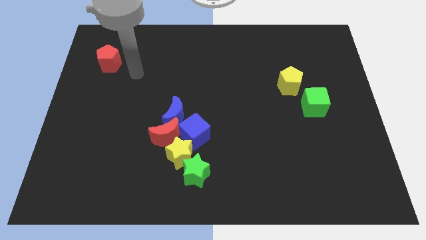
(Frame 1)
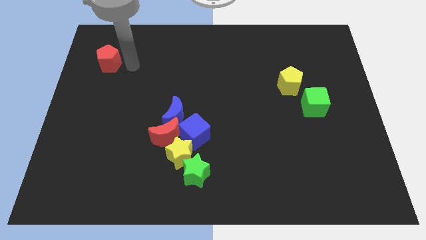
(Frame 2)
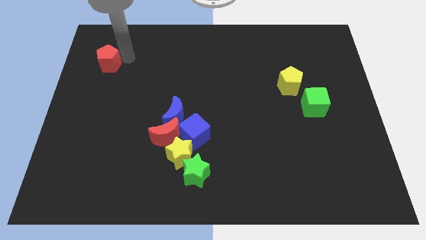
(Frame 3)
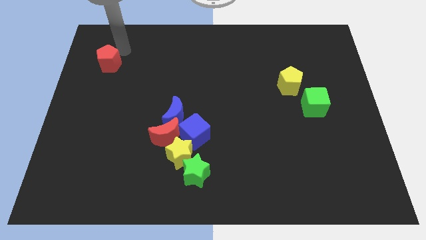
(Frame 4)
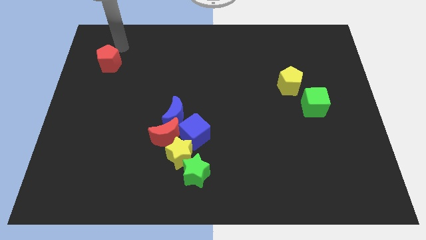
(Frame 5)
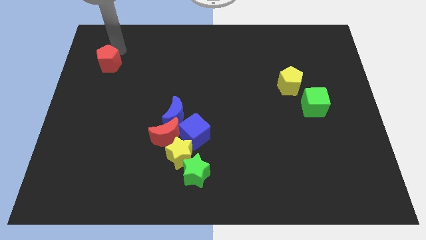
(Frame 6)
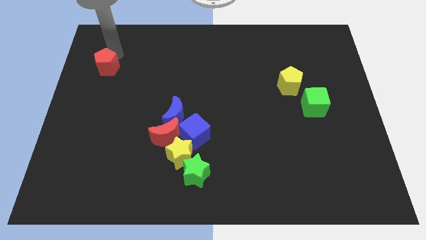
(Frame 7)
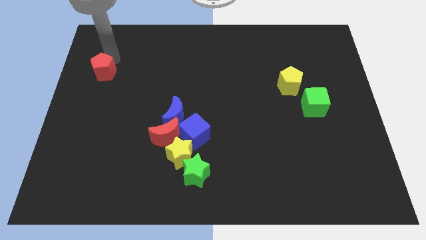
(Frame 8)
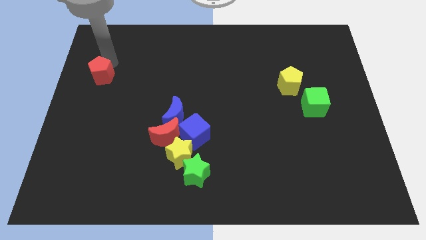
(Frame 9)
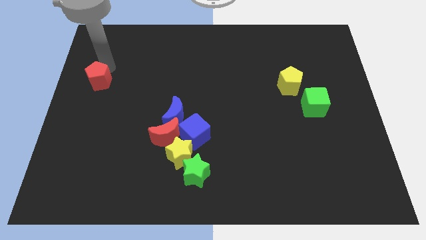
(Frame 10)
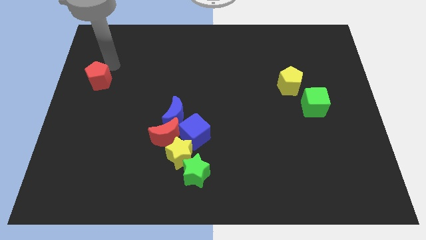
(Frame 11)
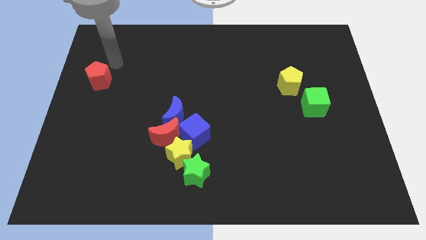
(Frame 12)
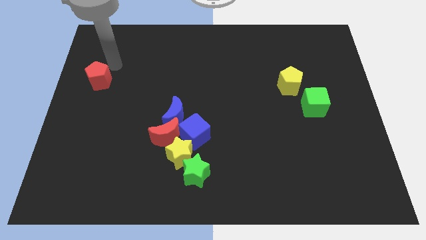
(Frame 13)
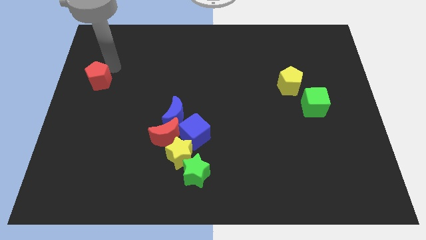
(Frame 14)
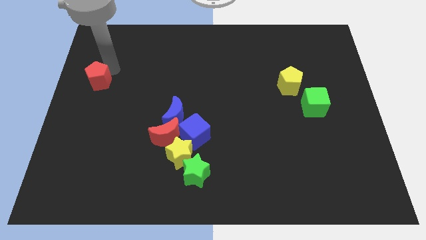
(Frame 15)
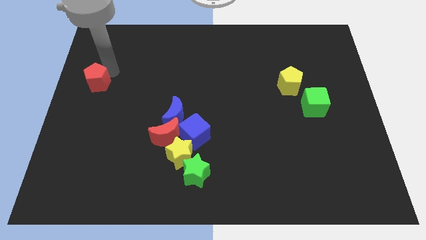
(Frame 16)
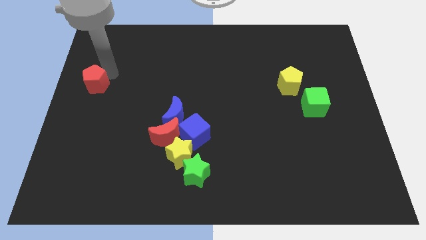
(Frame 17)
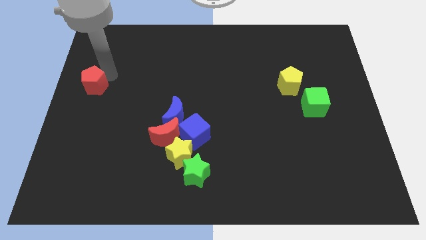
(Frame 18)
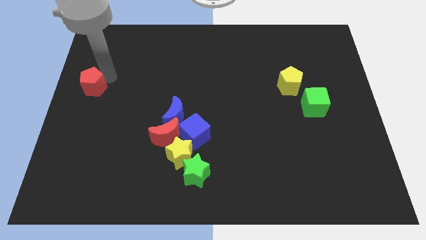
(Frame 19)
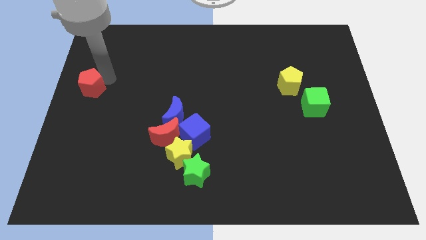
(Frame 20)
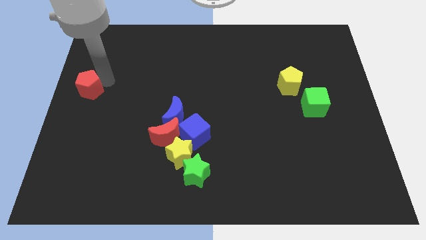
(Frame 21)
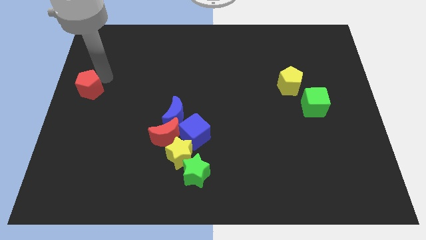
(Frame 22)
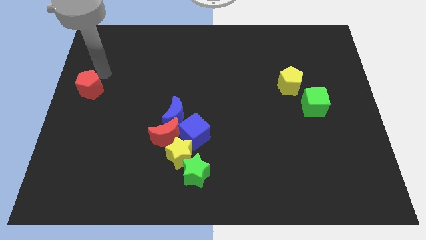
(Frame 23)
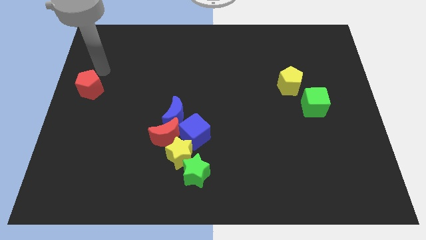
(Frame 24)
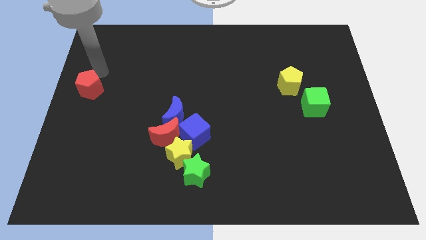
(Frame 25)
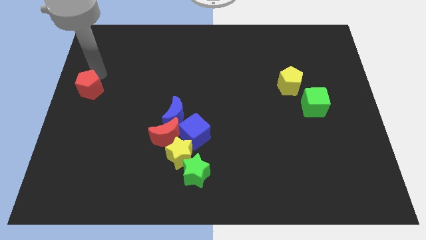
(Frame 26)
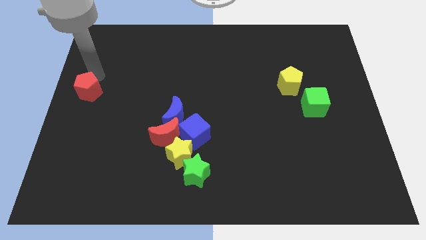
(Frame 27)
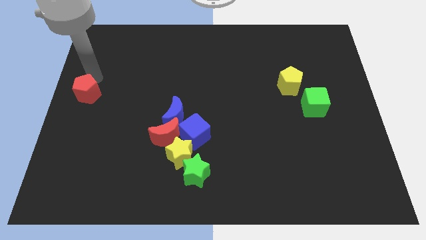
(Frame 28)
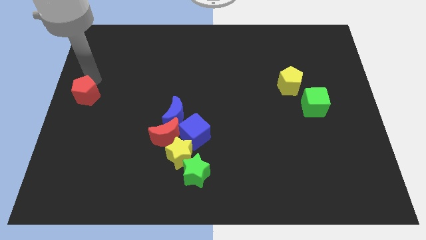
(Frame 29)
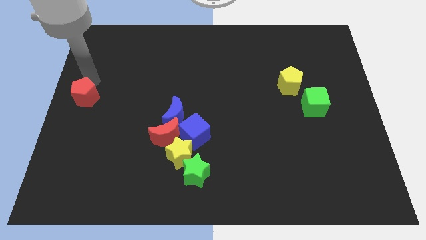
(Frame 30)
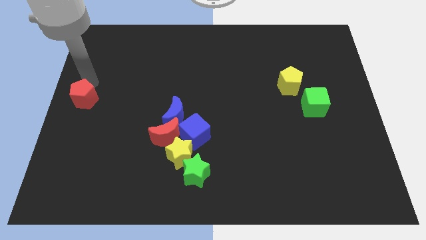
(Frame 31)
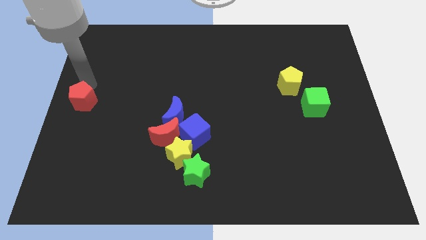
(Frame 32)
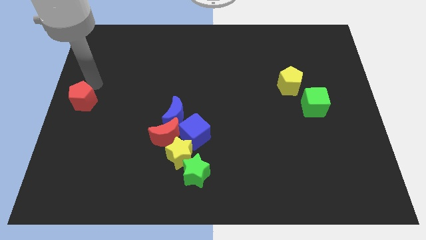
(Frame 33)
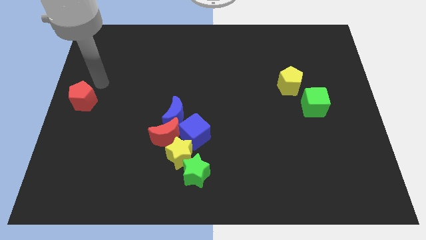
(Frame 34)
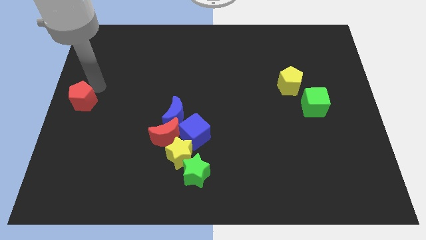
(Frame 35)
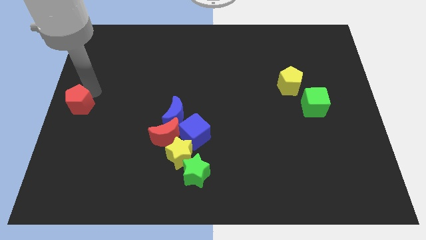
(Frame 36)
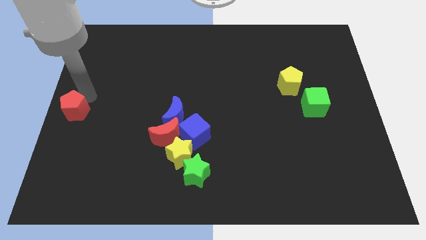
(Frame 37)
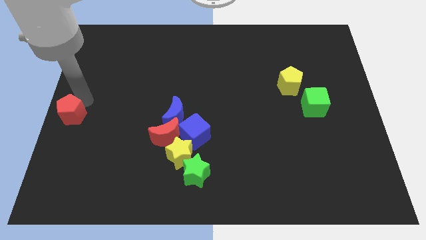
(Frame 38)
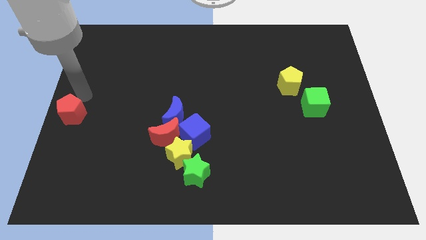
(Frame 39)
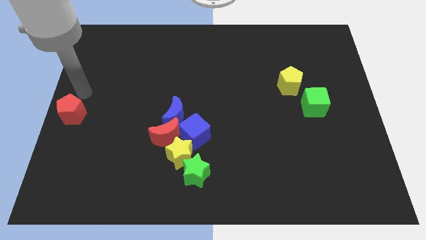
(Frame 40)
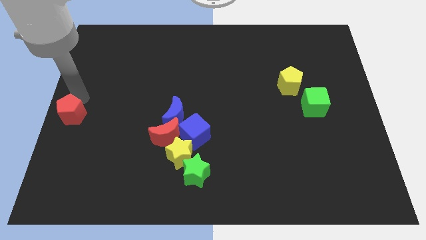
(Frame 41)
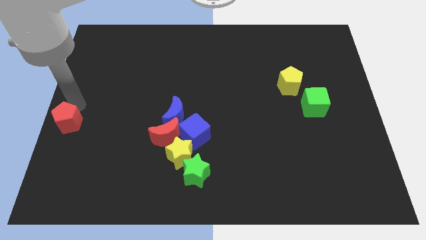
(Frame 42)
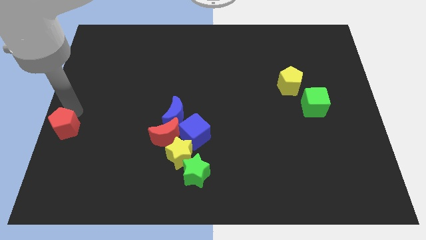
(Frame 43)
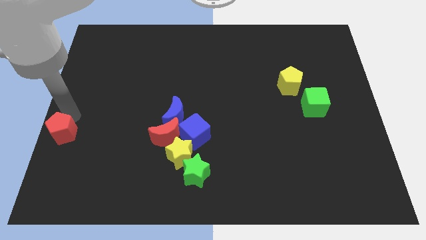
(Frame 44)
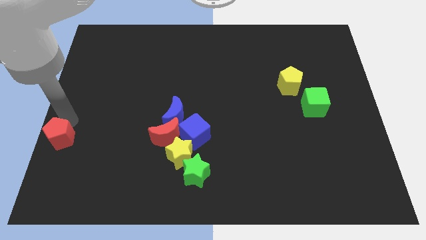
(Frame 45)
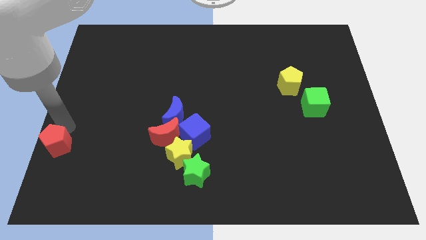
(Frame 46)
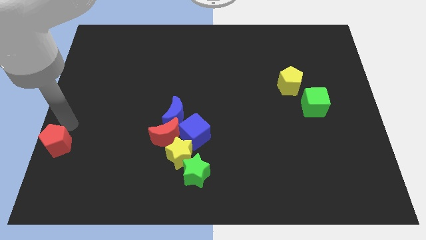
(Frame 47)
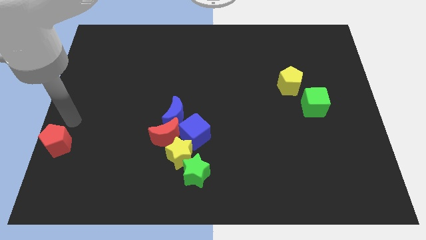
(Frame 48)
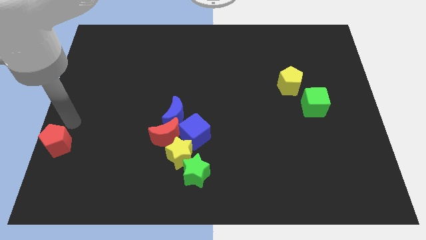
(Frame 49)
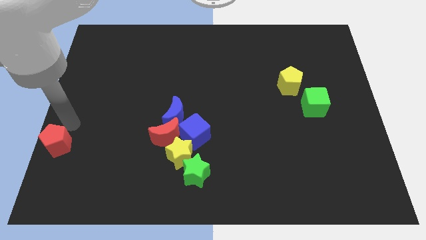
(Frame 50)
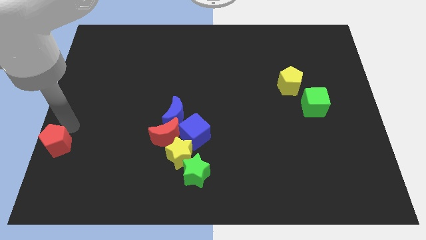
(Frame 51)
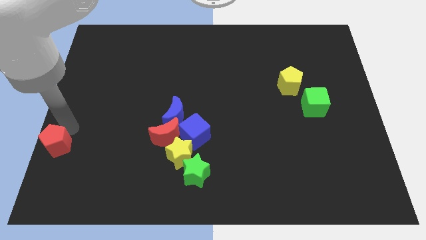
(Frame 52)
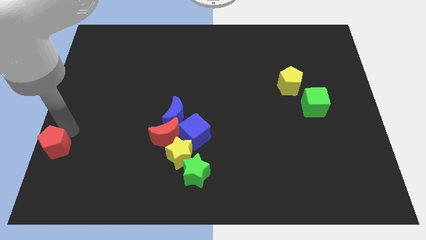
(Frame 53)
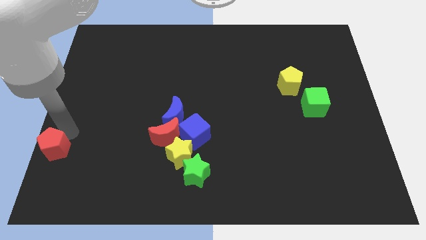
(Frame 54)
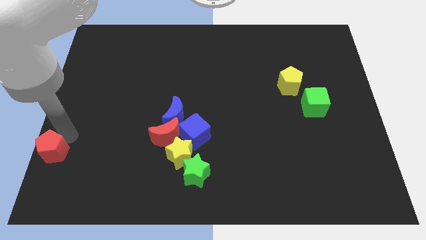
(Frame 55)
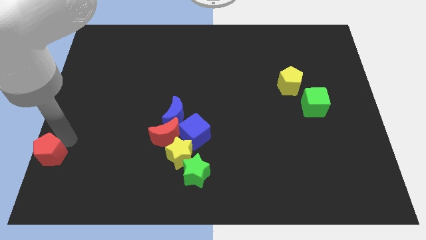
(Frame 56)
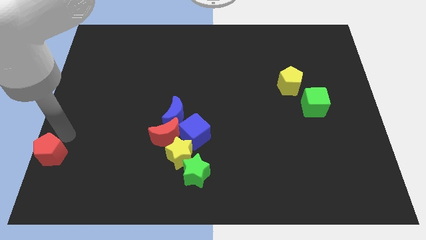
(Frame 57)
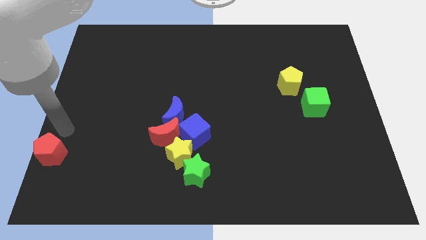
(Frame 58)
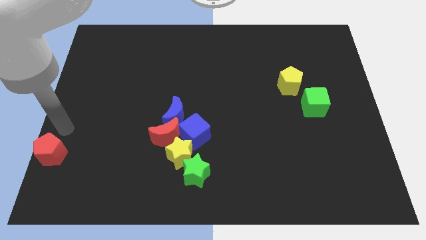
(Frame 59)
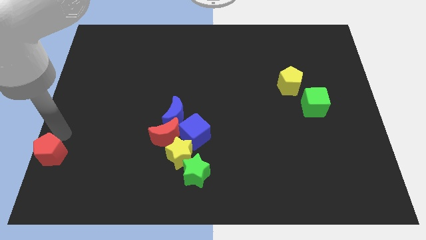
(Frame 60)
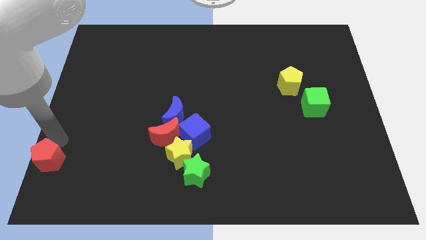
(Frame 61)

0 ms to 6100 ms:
slide the red pentagon to the bottom left corner

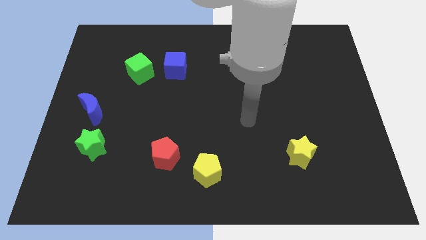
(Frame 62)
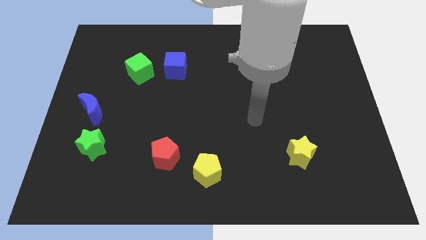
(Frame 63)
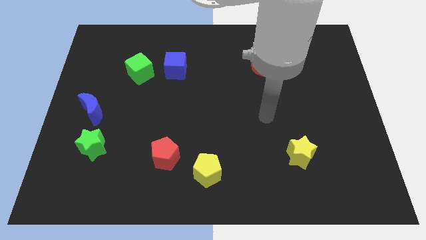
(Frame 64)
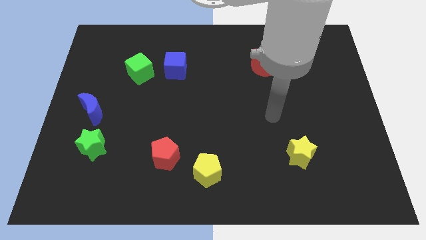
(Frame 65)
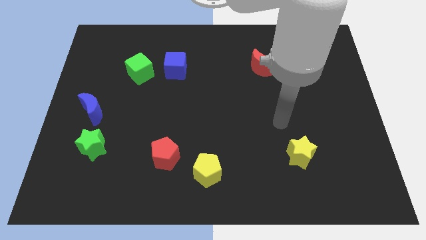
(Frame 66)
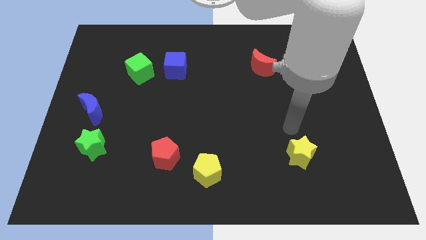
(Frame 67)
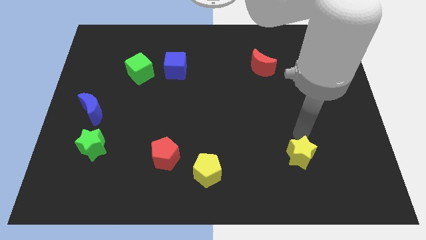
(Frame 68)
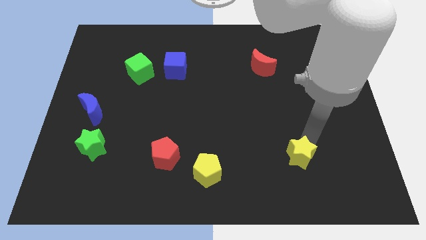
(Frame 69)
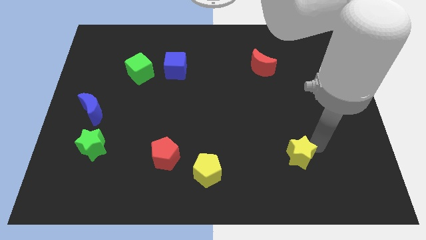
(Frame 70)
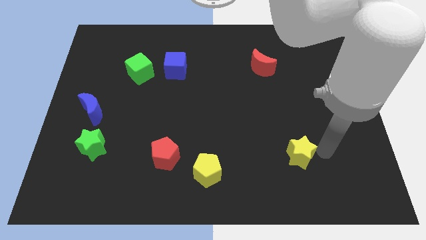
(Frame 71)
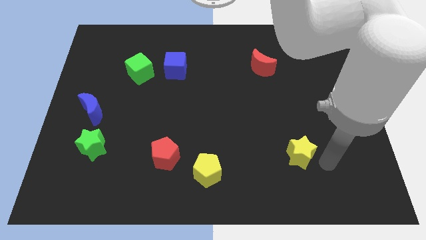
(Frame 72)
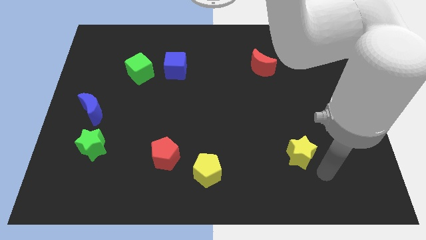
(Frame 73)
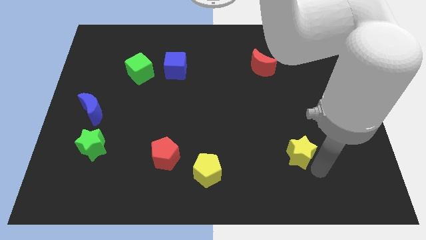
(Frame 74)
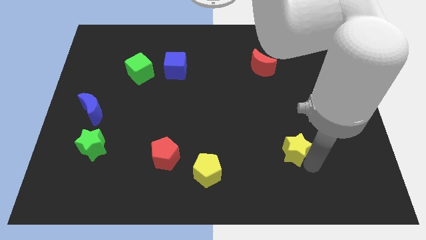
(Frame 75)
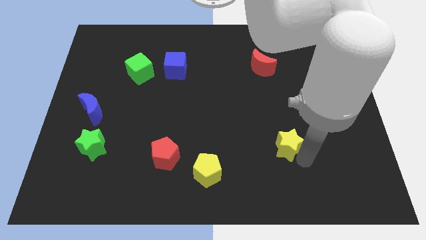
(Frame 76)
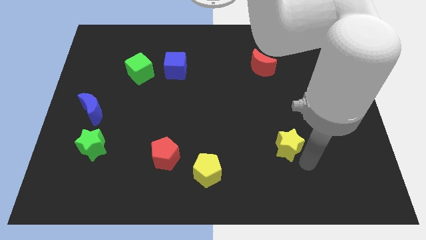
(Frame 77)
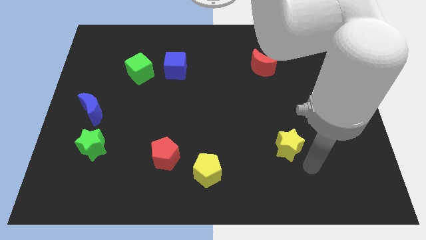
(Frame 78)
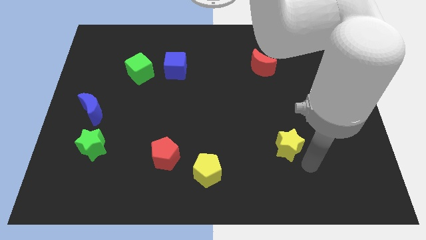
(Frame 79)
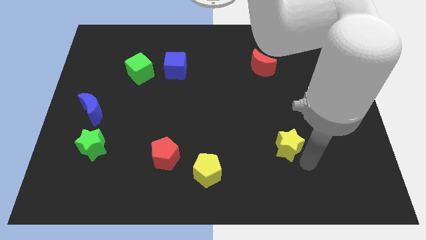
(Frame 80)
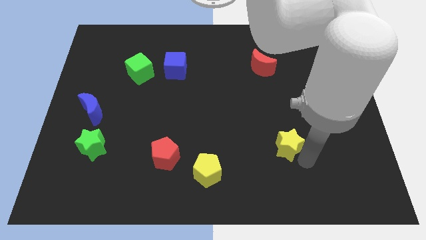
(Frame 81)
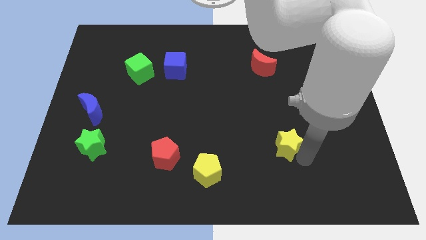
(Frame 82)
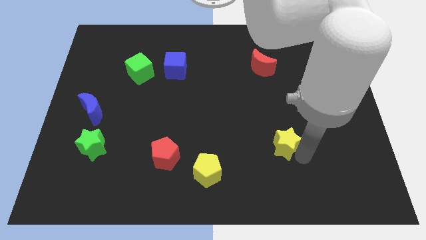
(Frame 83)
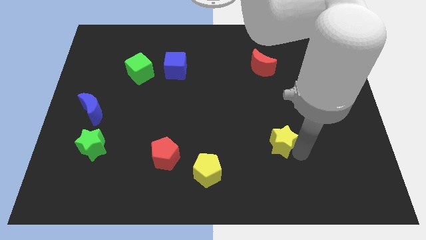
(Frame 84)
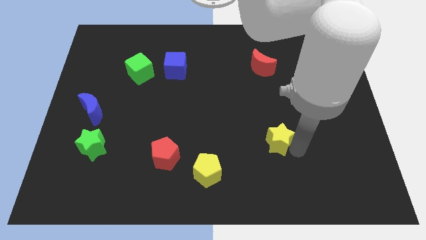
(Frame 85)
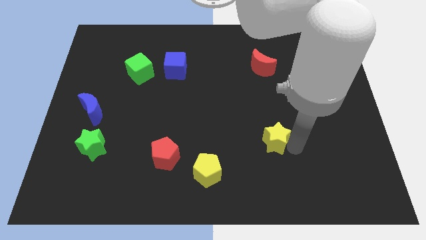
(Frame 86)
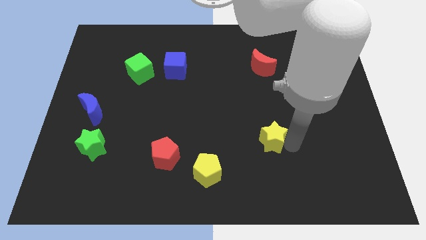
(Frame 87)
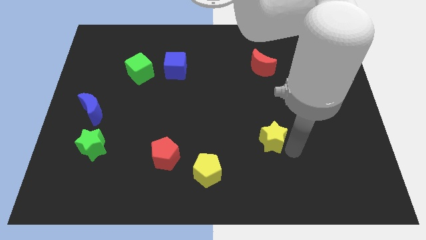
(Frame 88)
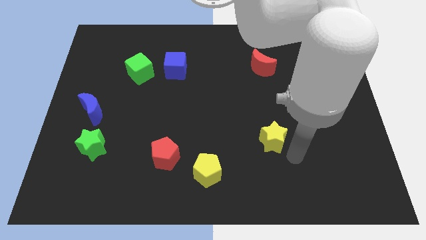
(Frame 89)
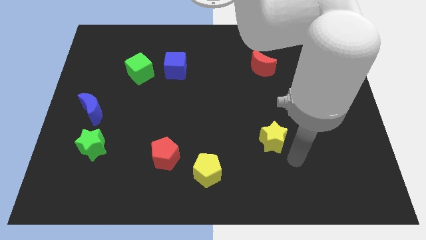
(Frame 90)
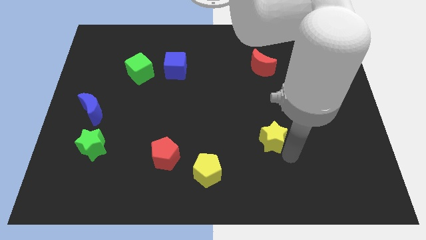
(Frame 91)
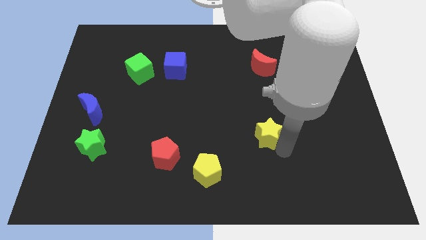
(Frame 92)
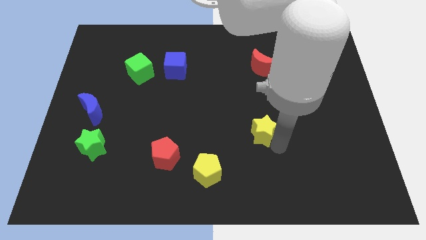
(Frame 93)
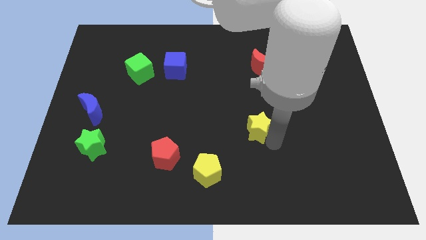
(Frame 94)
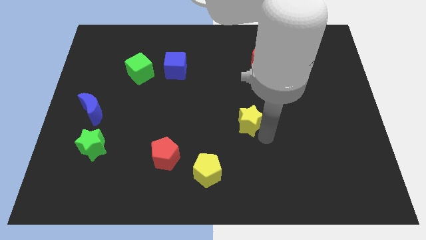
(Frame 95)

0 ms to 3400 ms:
slide the yellow star to the center
